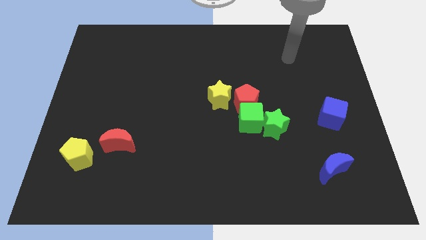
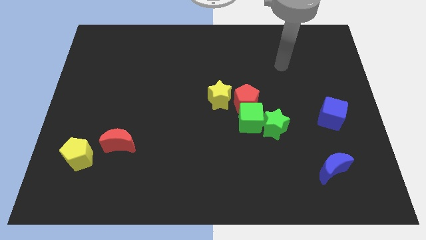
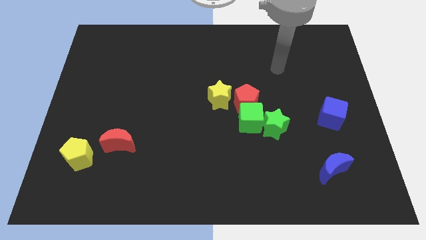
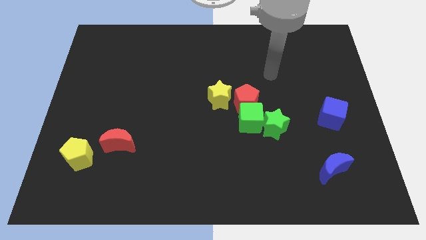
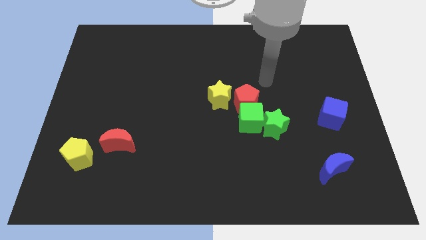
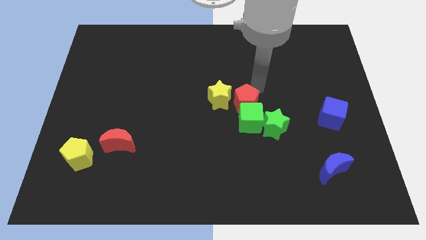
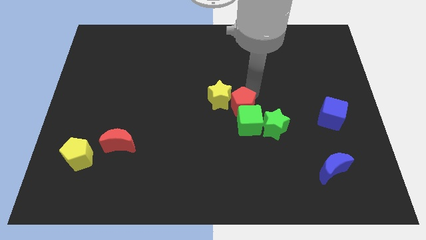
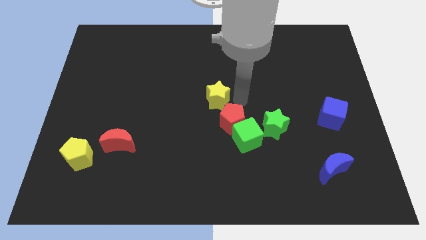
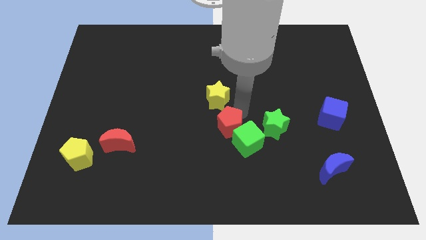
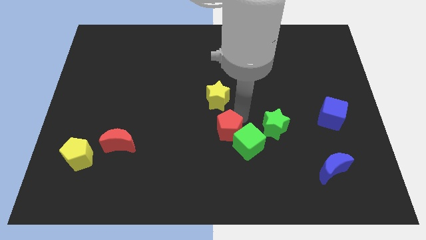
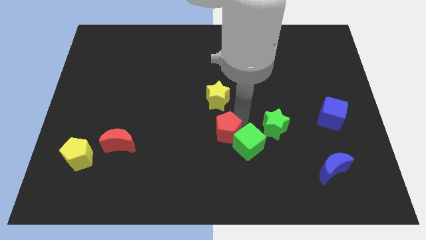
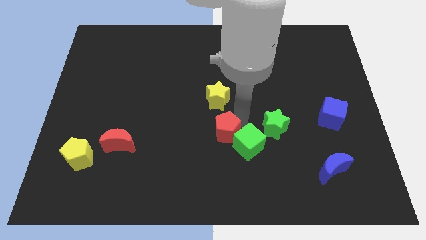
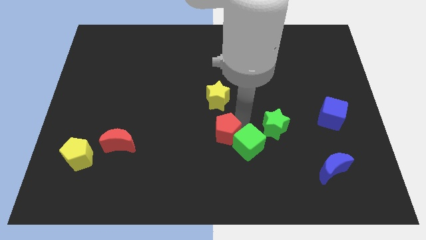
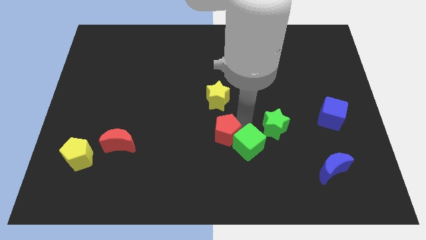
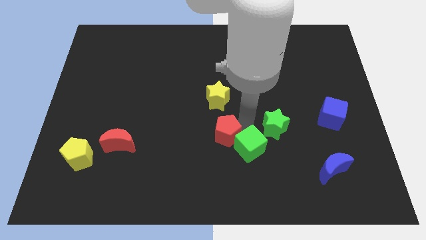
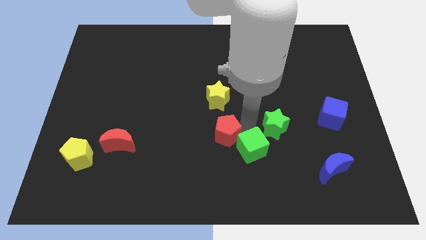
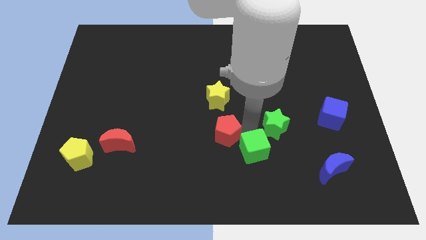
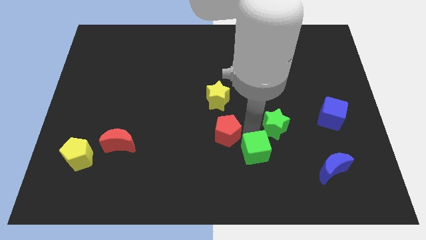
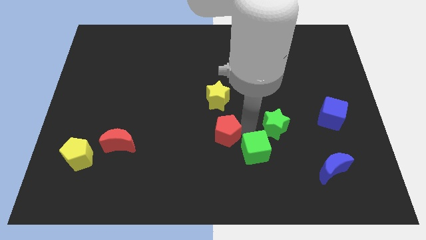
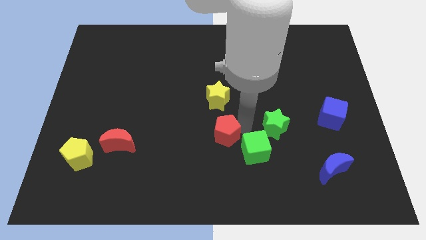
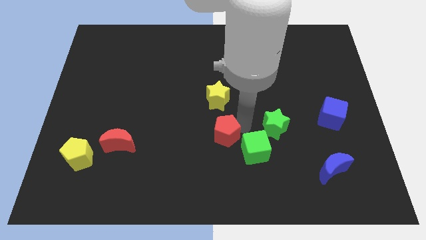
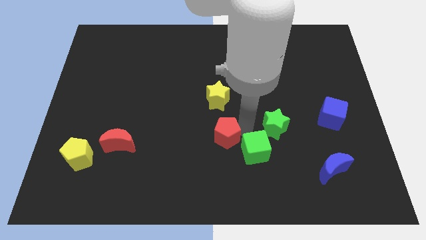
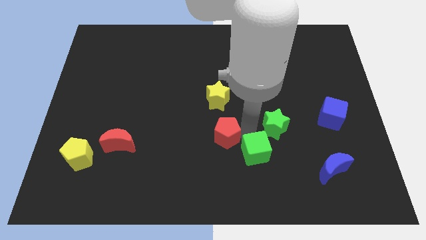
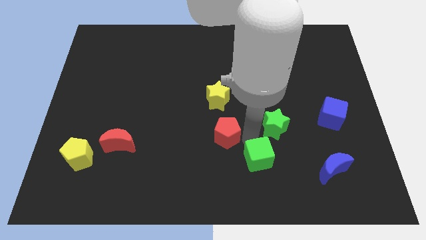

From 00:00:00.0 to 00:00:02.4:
separate the green cube from the red pentagon, green star, and yellow star

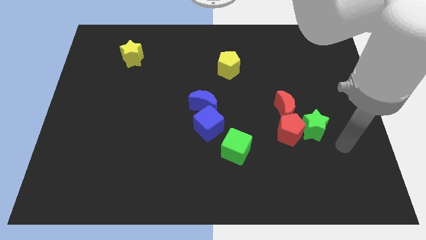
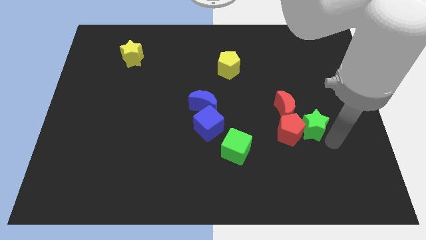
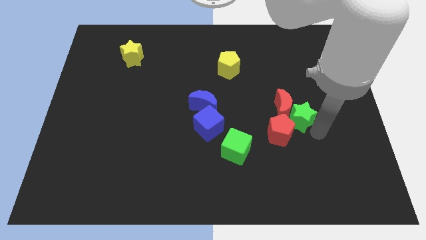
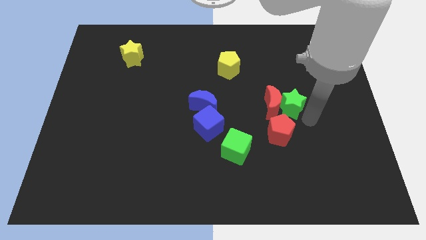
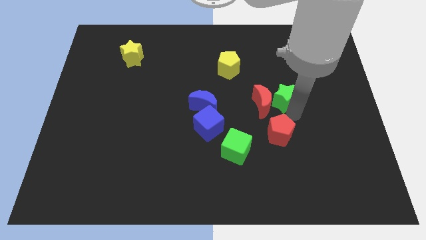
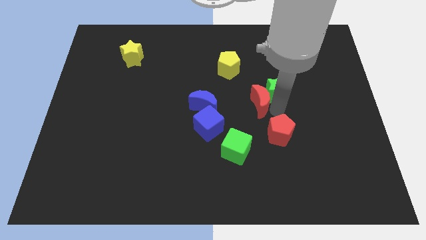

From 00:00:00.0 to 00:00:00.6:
pull the red pentagon apart from the green star and red moon

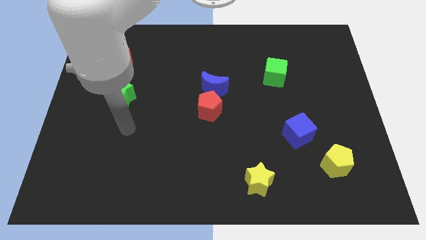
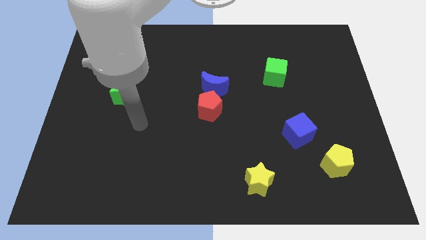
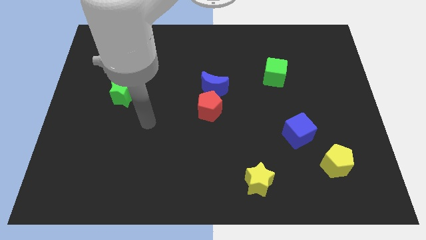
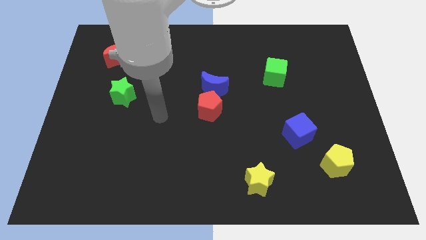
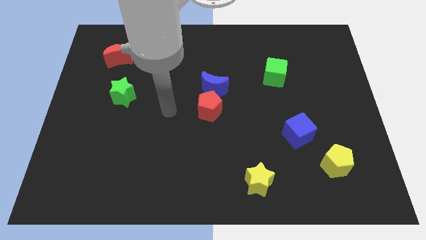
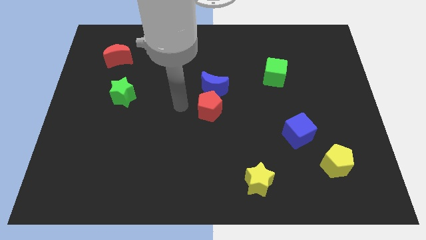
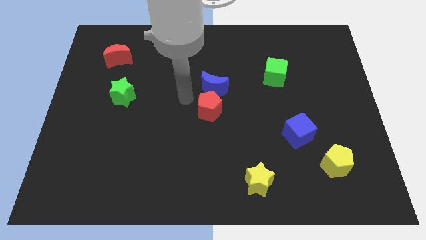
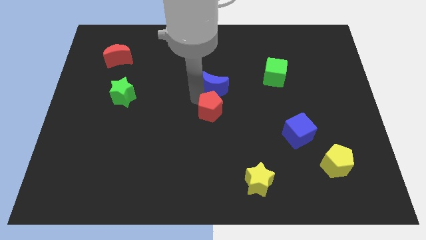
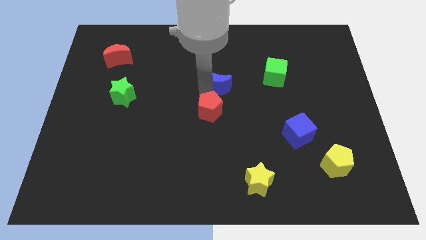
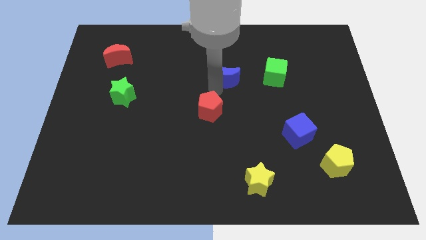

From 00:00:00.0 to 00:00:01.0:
move the red pentagon away from the blue moon

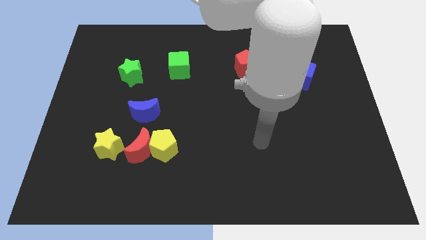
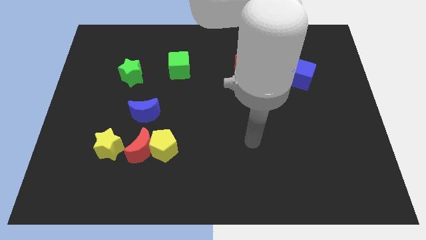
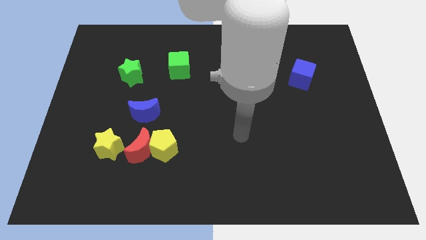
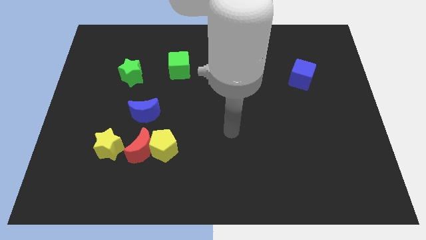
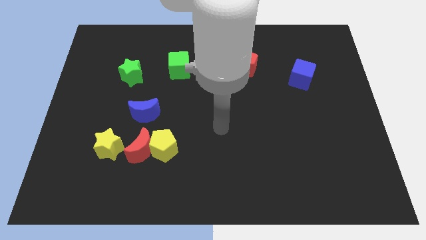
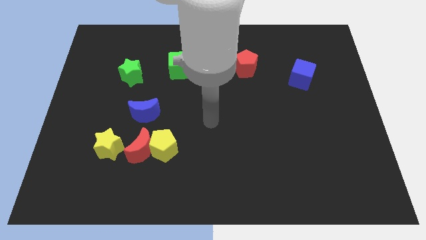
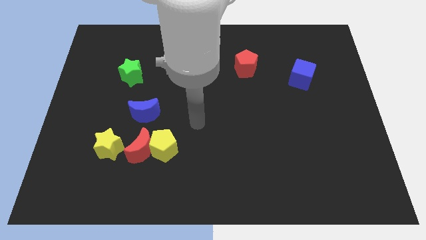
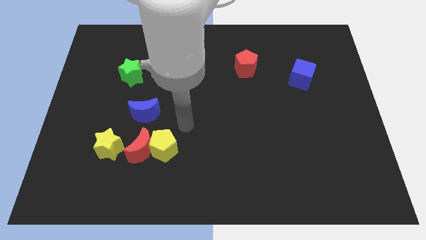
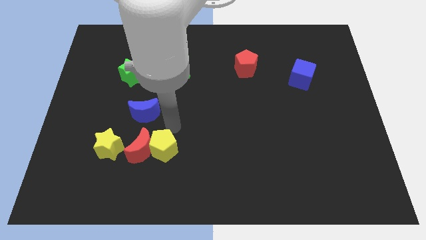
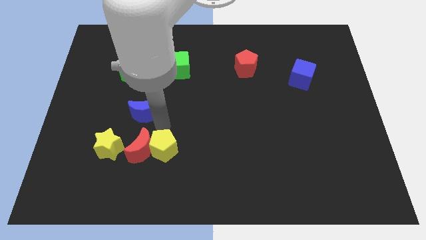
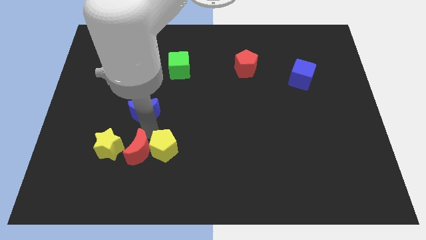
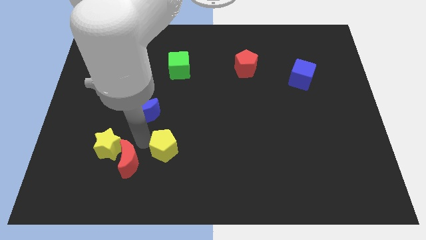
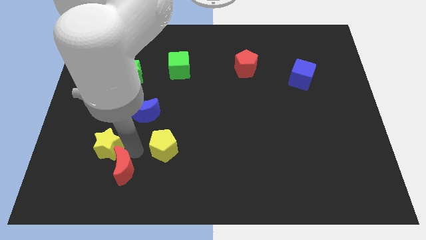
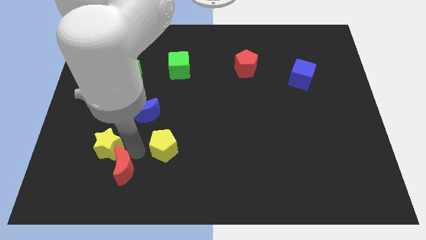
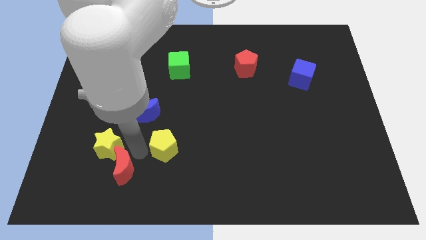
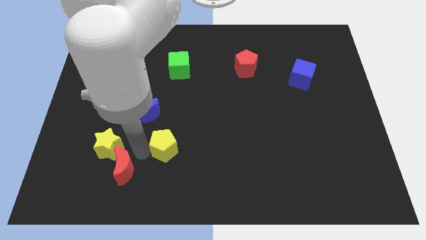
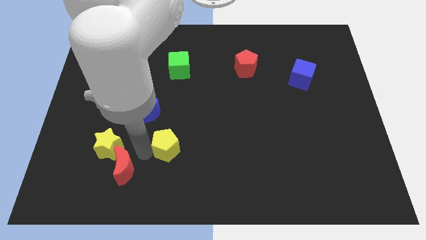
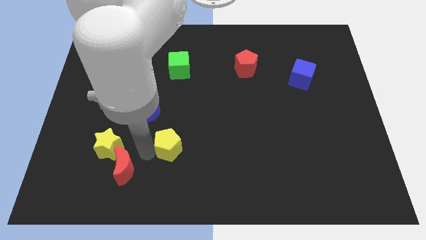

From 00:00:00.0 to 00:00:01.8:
separate the yellow pentagon from the red moon

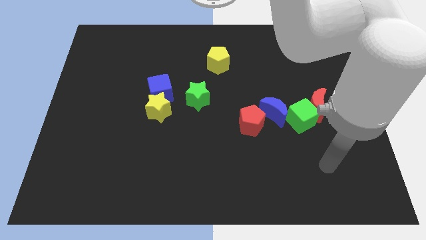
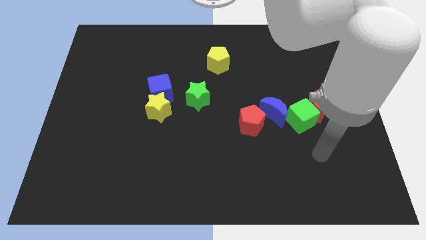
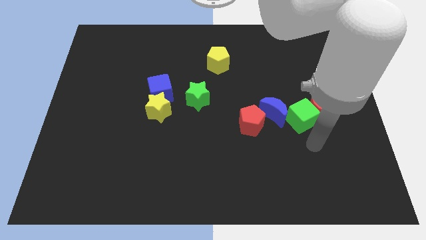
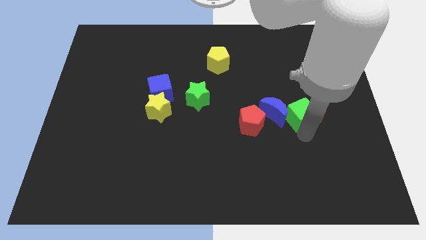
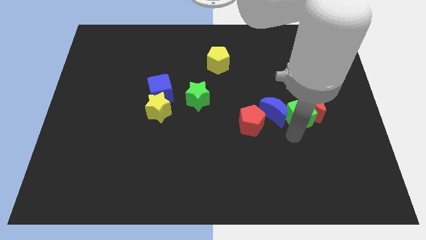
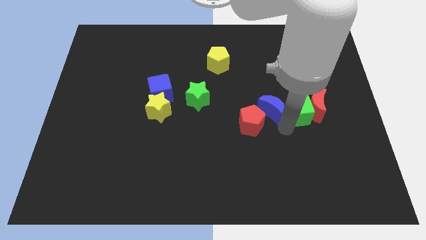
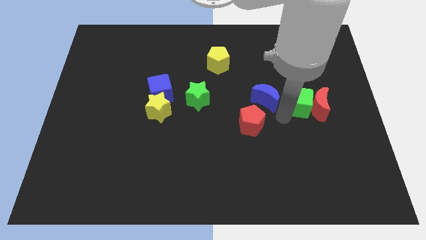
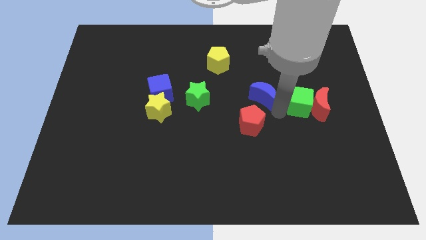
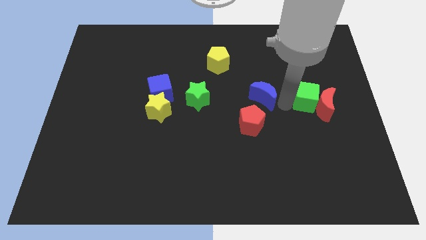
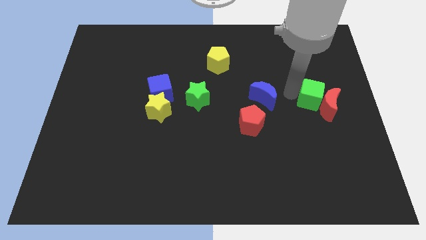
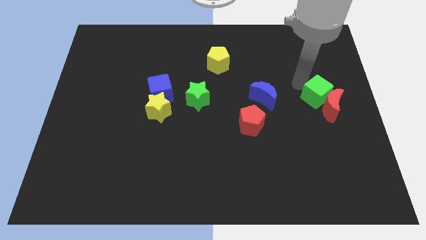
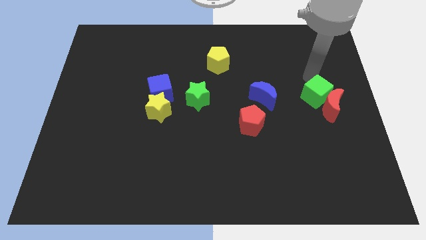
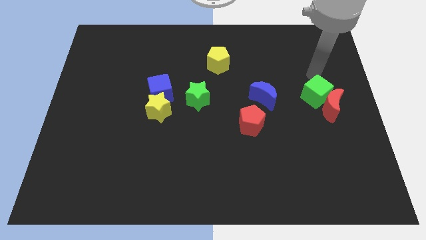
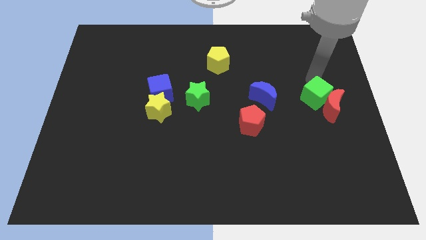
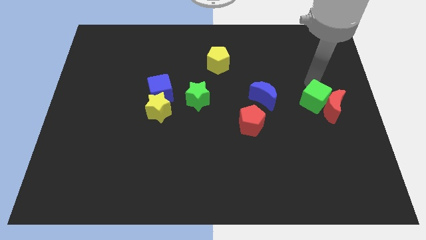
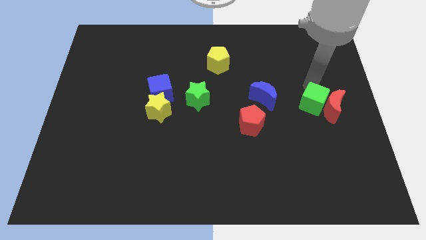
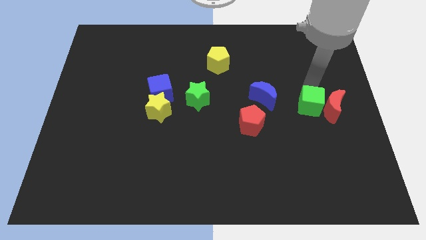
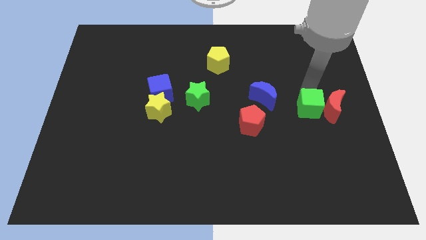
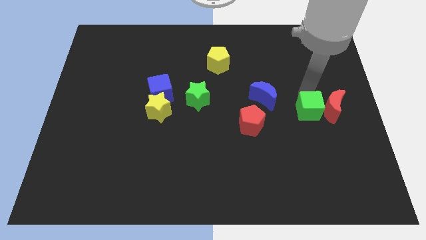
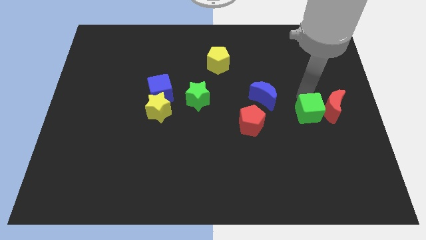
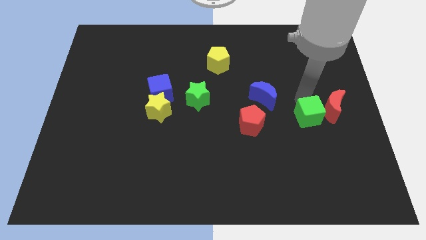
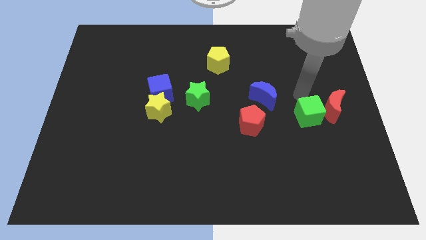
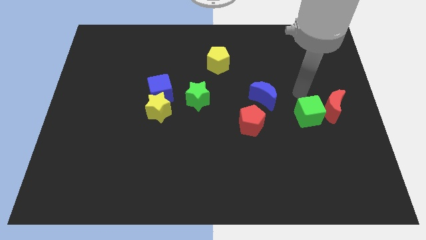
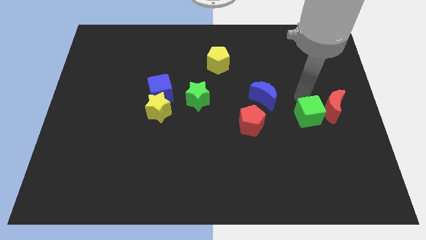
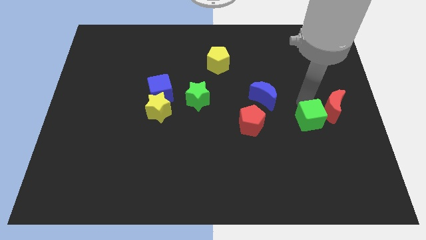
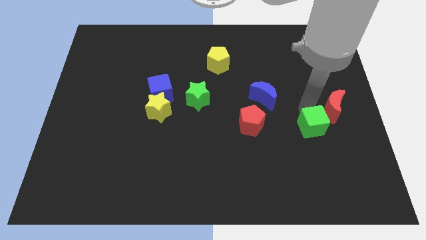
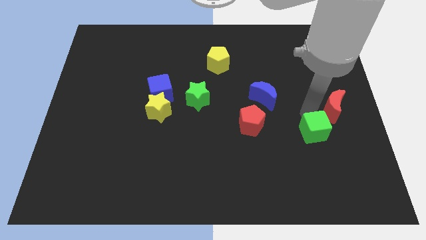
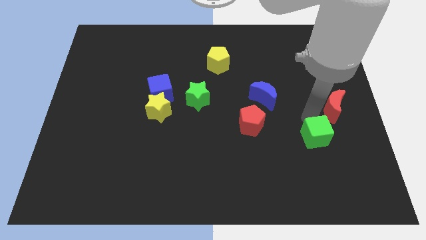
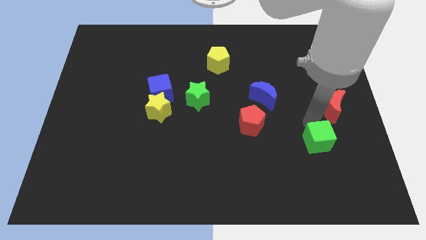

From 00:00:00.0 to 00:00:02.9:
pull the green cube apart from the red moon and blue moon

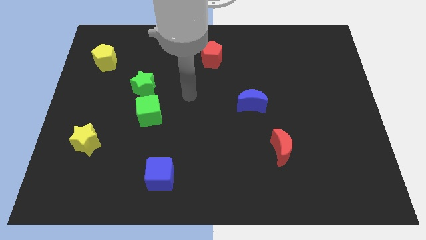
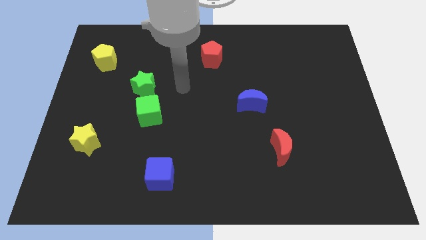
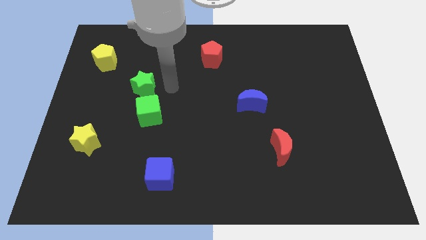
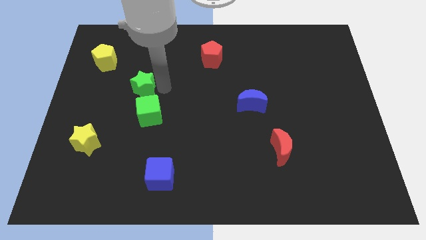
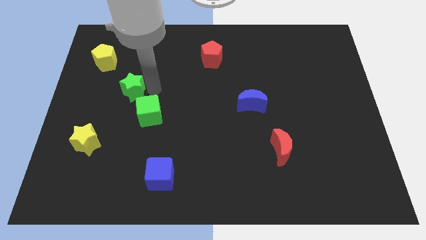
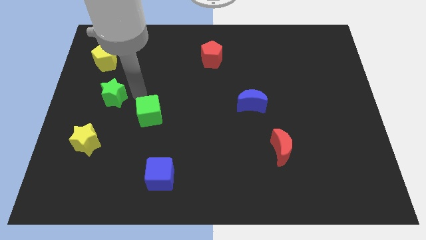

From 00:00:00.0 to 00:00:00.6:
move the green cube away from the green star
